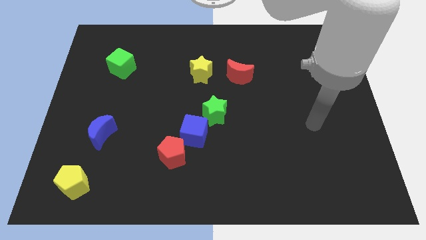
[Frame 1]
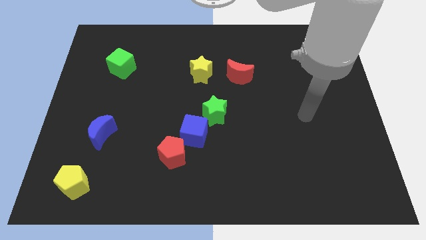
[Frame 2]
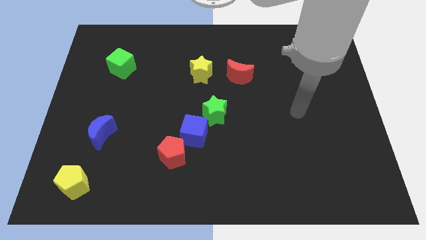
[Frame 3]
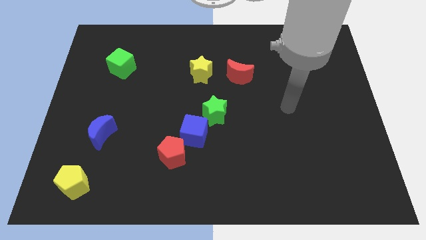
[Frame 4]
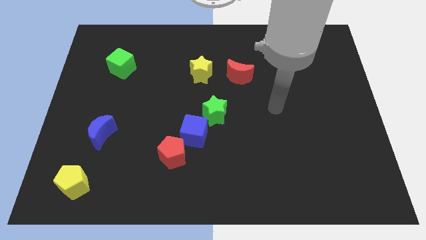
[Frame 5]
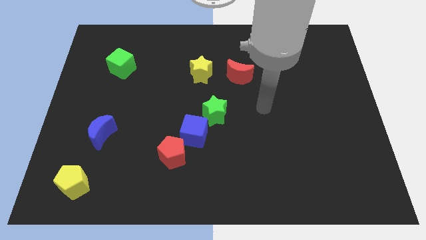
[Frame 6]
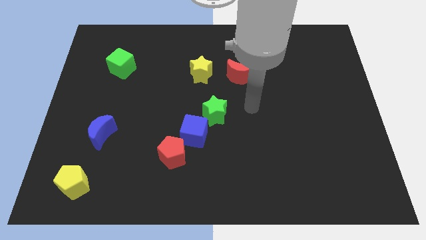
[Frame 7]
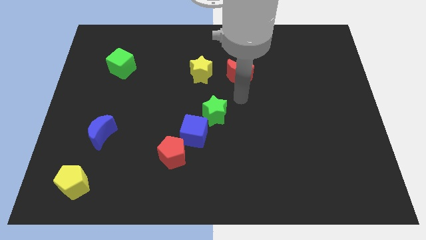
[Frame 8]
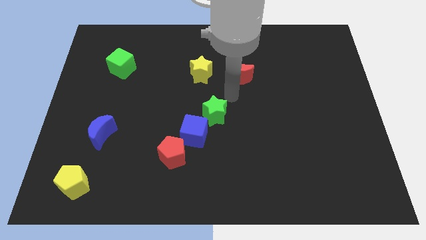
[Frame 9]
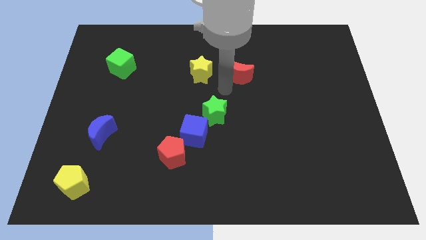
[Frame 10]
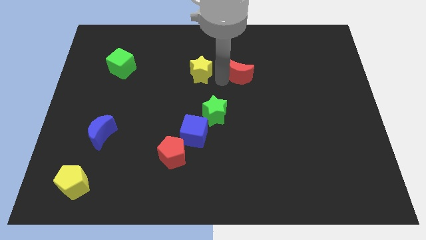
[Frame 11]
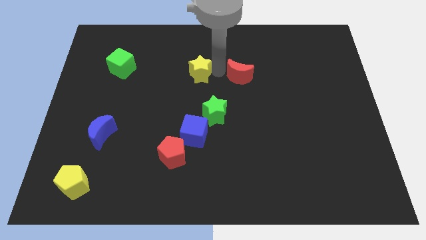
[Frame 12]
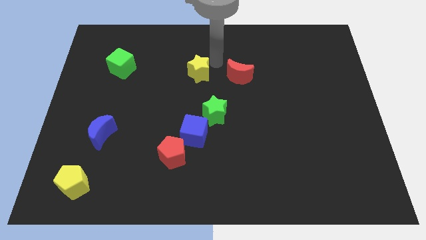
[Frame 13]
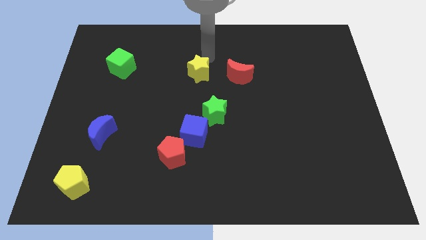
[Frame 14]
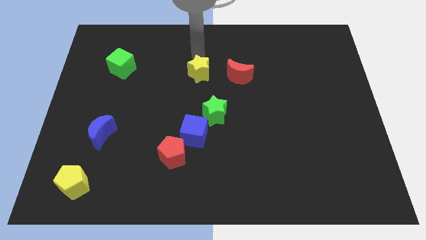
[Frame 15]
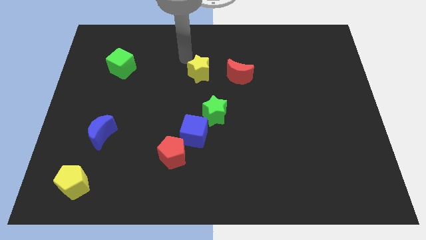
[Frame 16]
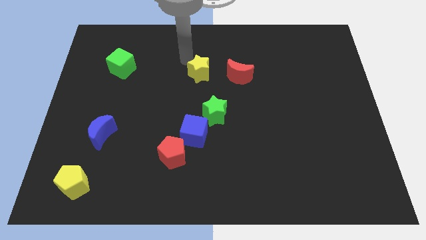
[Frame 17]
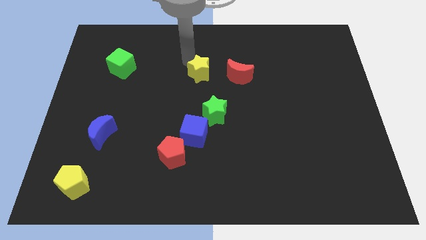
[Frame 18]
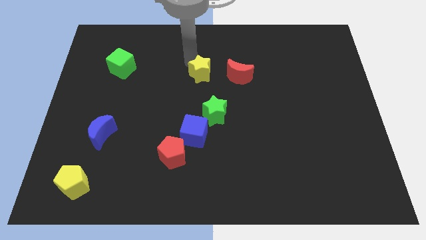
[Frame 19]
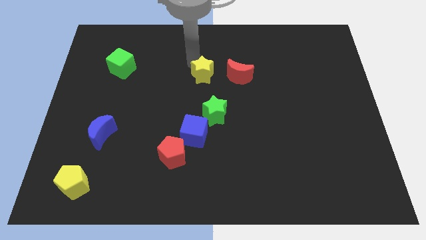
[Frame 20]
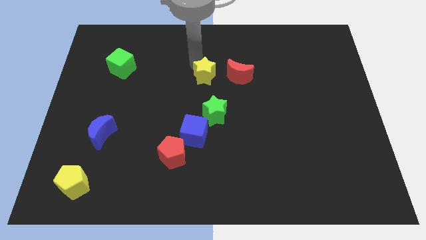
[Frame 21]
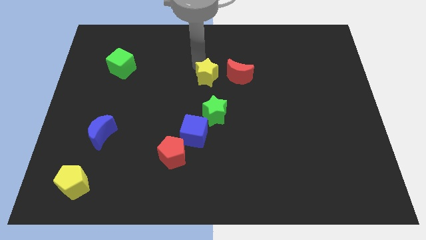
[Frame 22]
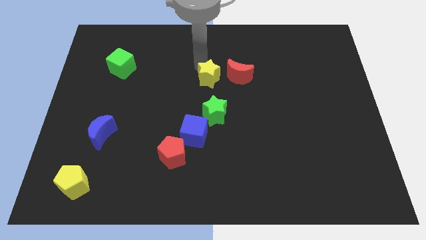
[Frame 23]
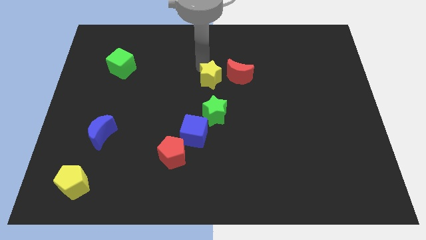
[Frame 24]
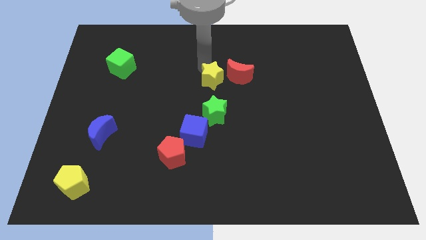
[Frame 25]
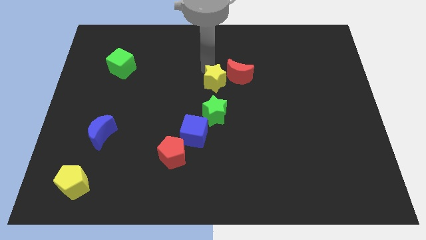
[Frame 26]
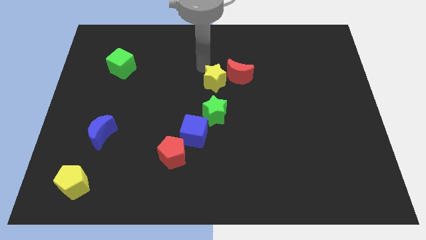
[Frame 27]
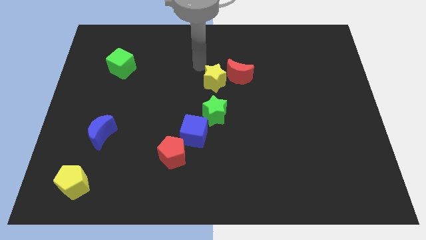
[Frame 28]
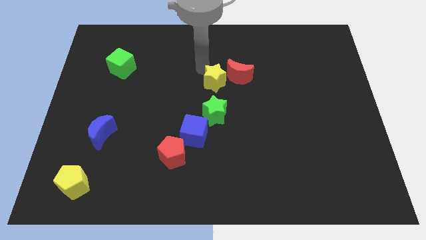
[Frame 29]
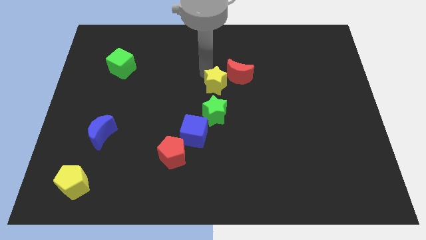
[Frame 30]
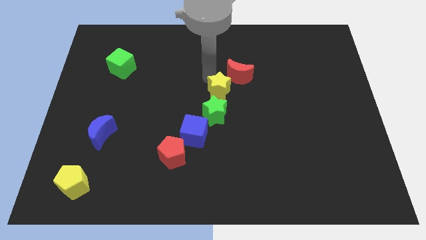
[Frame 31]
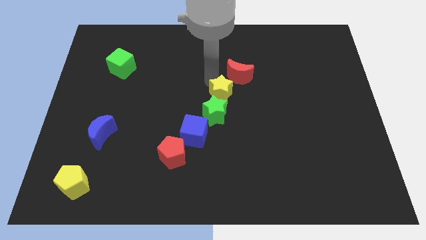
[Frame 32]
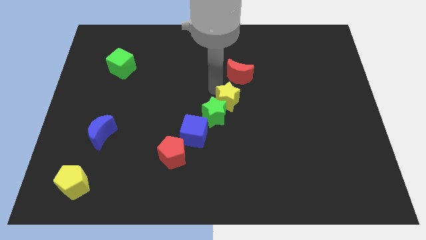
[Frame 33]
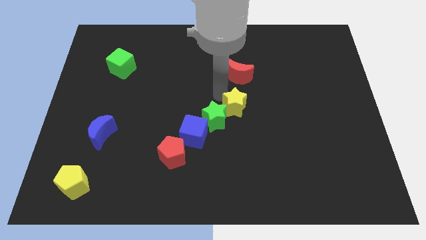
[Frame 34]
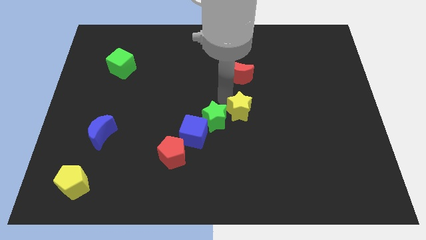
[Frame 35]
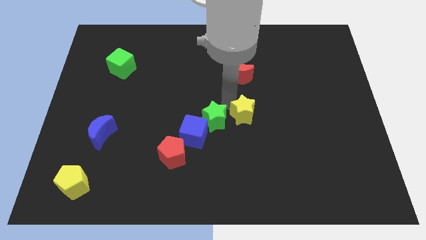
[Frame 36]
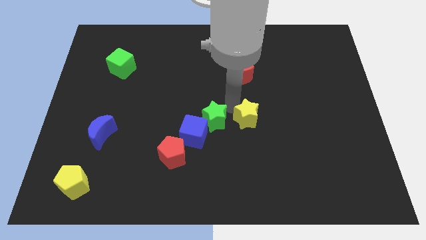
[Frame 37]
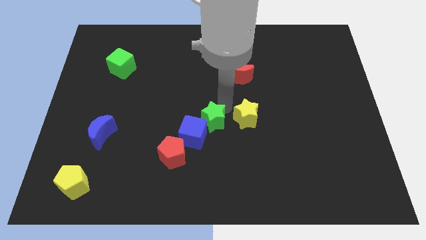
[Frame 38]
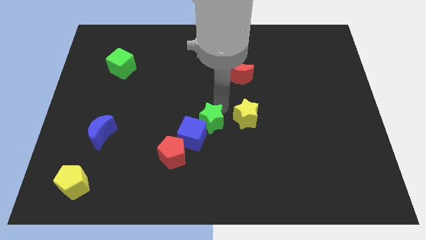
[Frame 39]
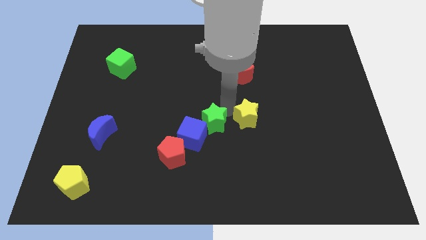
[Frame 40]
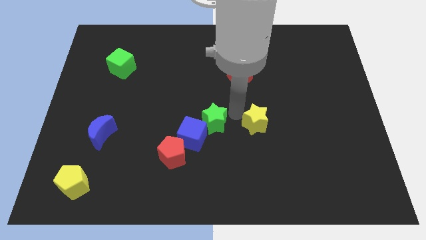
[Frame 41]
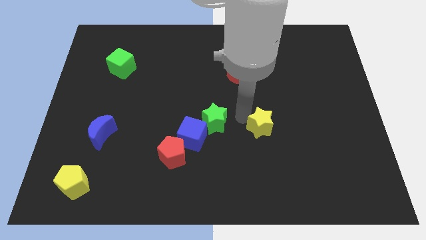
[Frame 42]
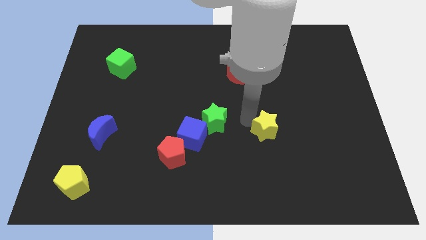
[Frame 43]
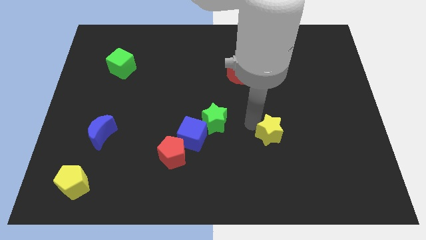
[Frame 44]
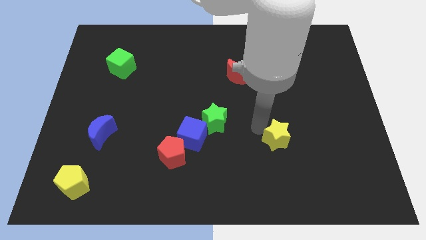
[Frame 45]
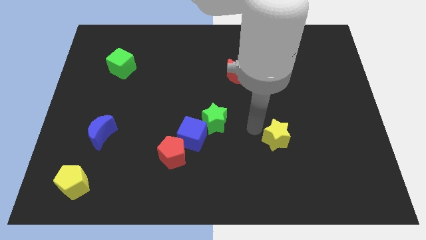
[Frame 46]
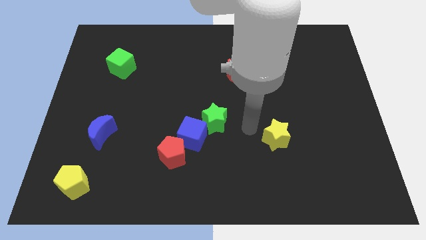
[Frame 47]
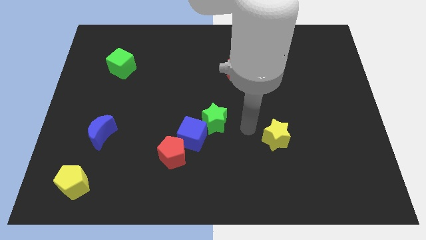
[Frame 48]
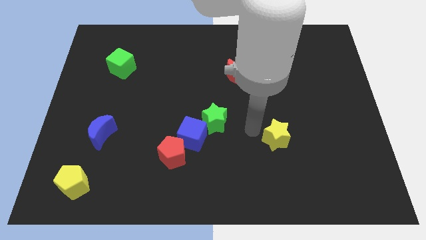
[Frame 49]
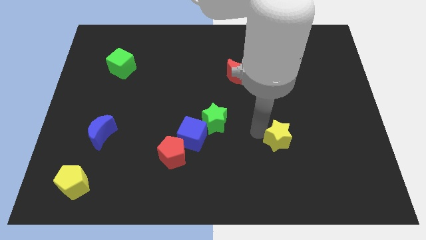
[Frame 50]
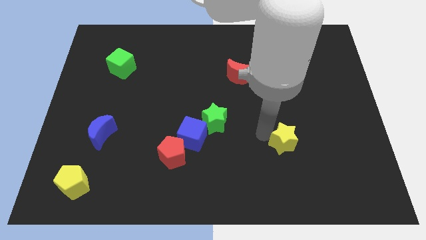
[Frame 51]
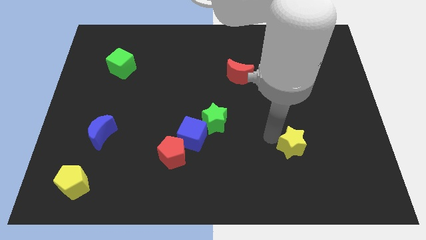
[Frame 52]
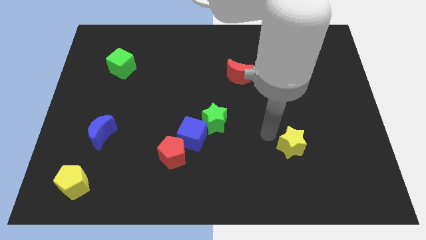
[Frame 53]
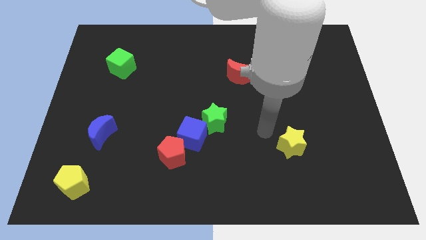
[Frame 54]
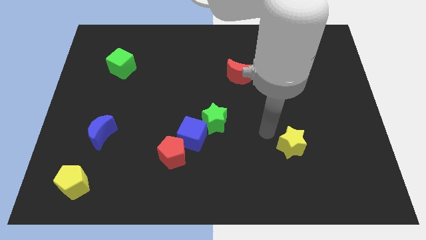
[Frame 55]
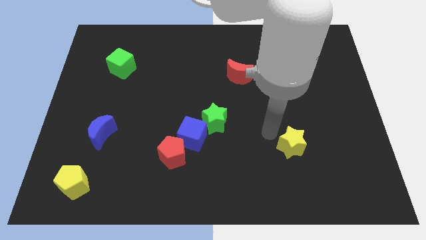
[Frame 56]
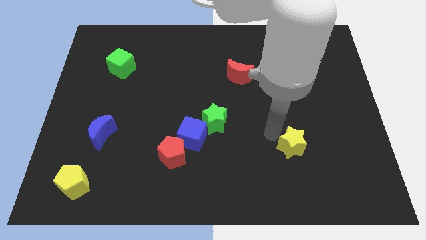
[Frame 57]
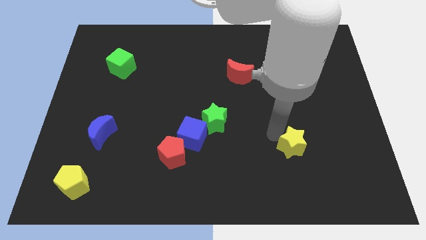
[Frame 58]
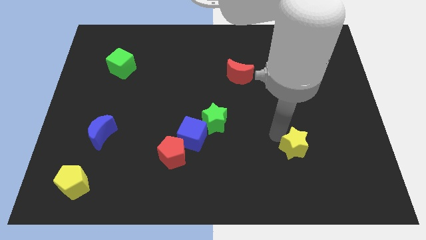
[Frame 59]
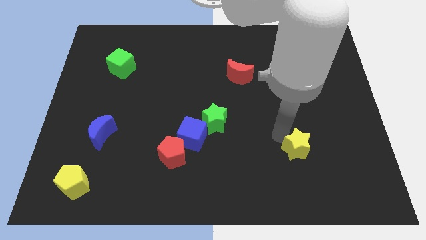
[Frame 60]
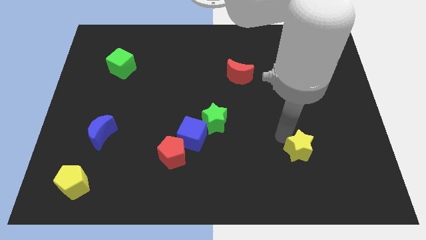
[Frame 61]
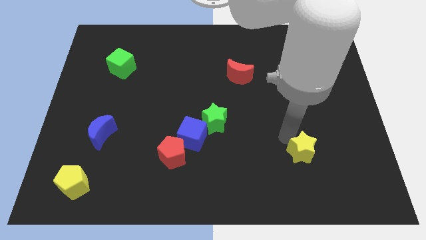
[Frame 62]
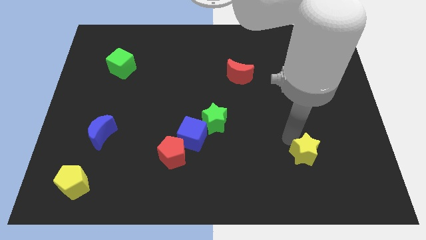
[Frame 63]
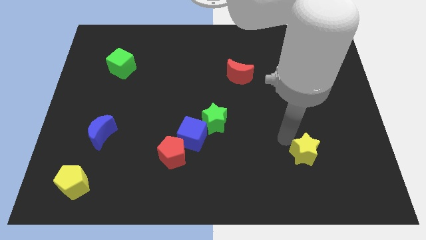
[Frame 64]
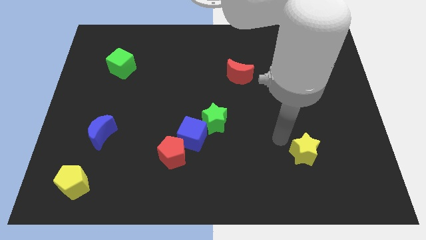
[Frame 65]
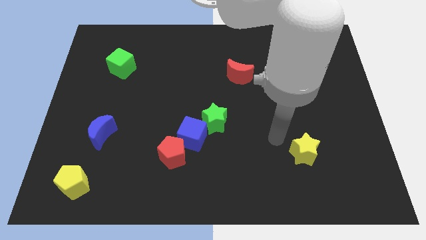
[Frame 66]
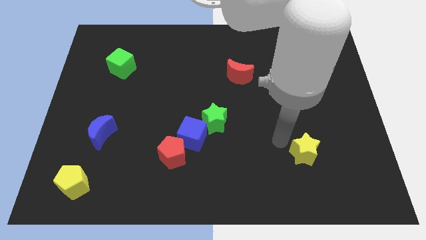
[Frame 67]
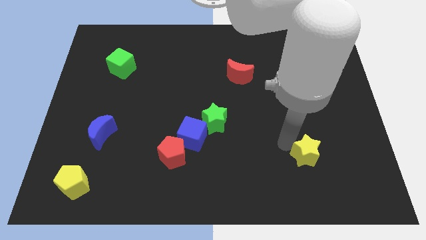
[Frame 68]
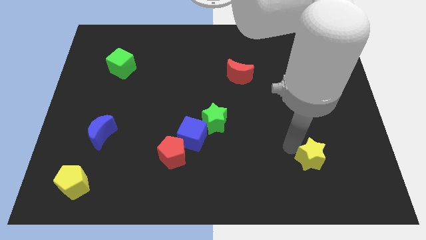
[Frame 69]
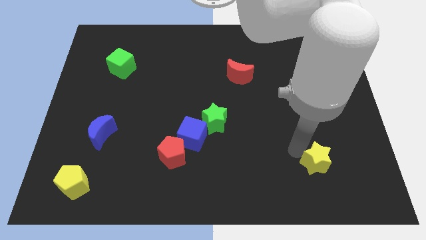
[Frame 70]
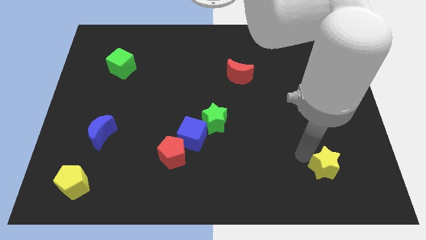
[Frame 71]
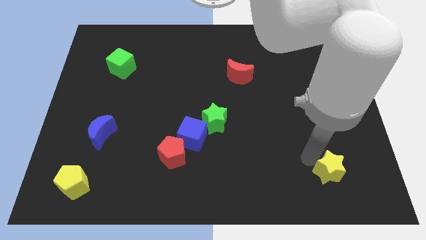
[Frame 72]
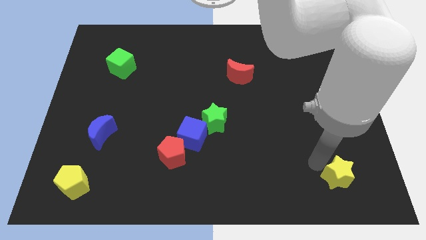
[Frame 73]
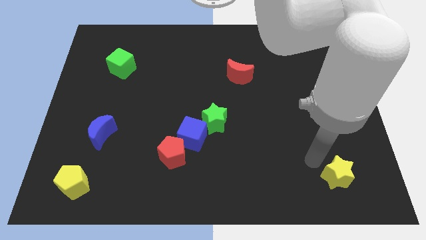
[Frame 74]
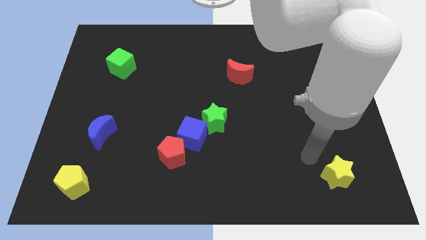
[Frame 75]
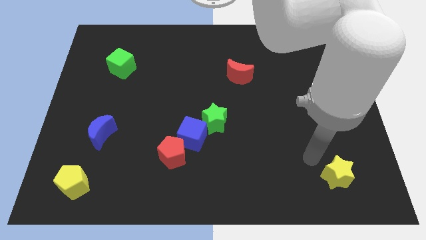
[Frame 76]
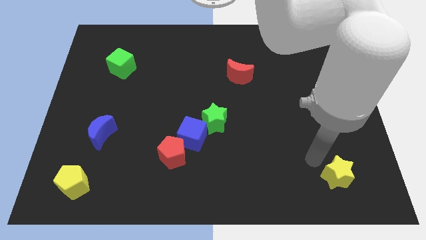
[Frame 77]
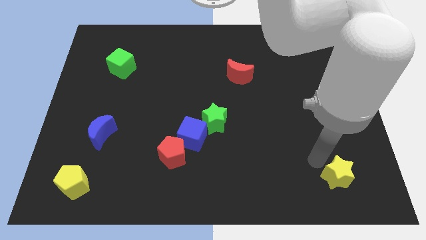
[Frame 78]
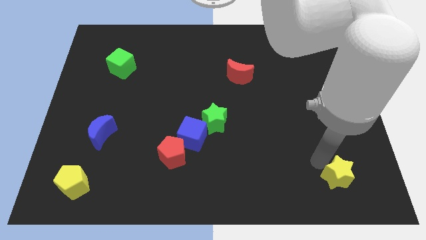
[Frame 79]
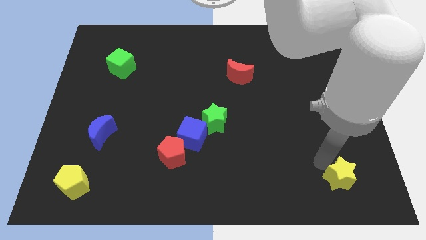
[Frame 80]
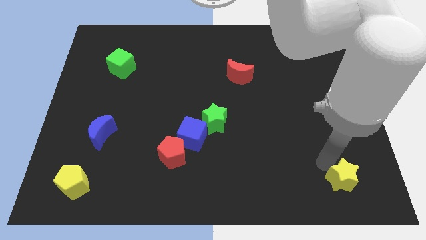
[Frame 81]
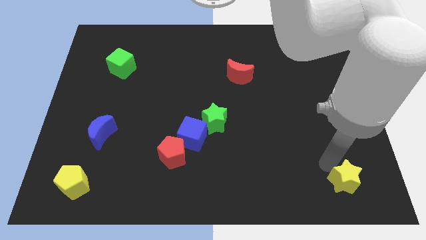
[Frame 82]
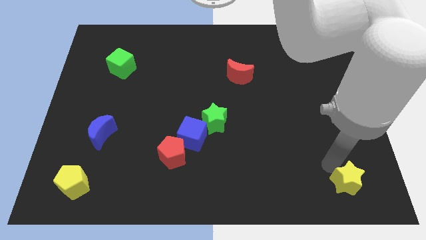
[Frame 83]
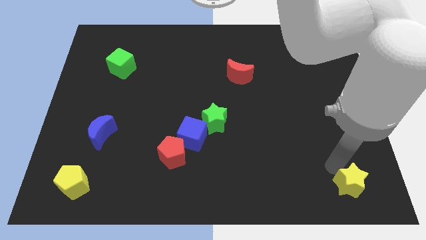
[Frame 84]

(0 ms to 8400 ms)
slide the yellow star to the bottom right corner
